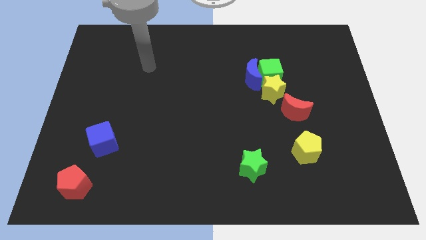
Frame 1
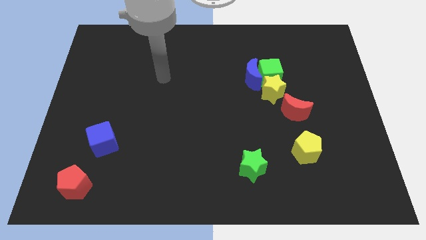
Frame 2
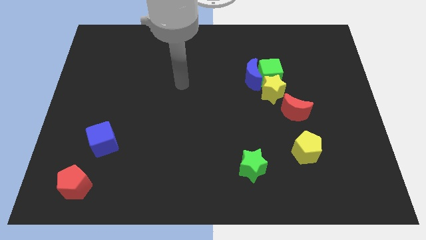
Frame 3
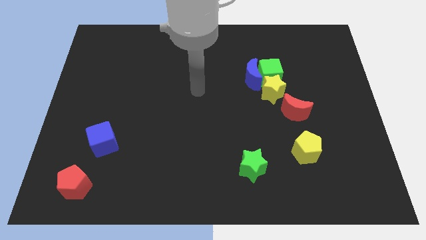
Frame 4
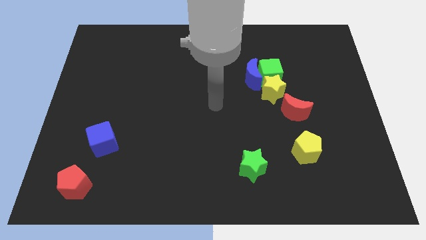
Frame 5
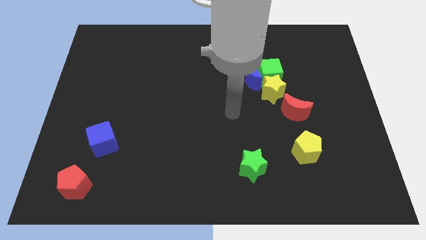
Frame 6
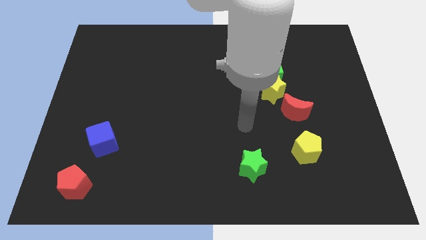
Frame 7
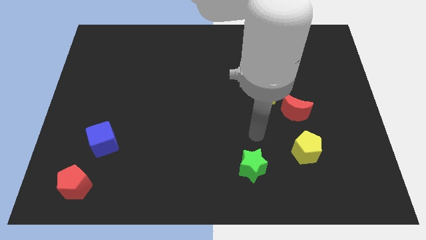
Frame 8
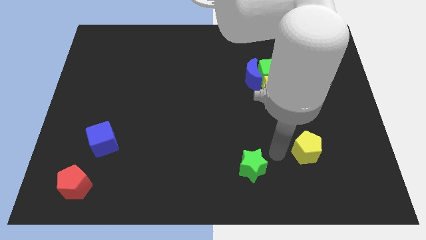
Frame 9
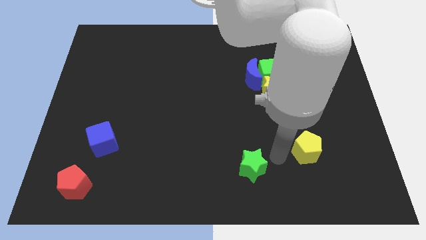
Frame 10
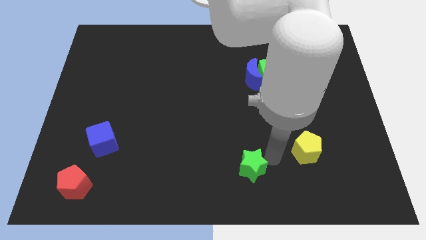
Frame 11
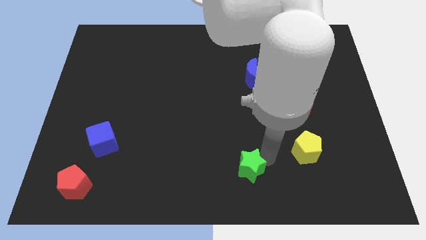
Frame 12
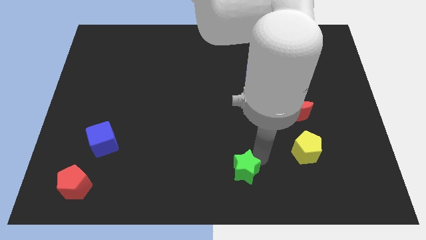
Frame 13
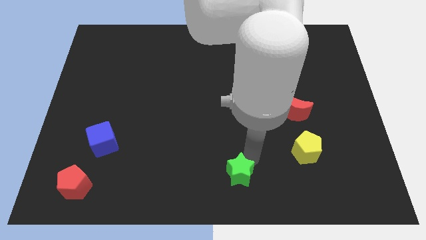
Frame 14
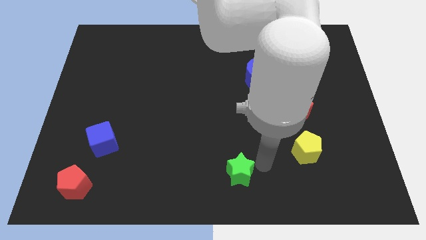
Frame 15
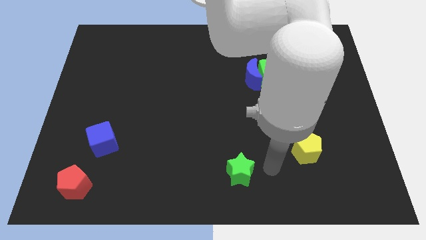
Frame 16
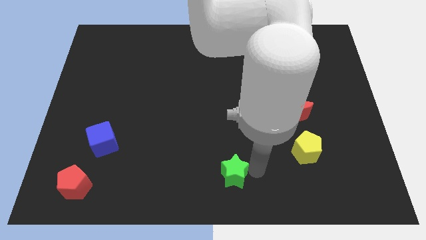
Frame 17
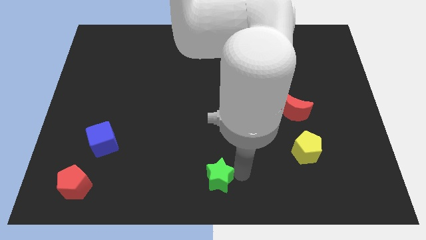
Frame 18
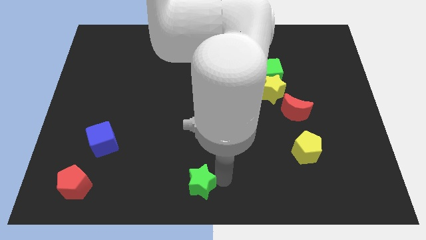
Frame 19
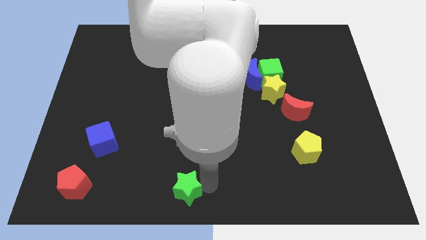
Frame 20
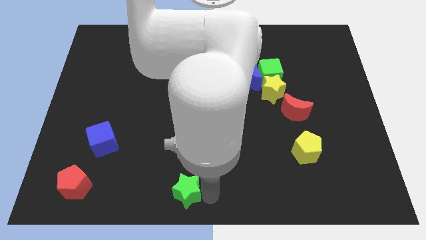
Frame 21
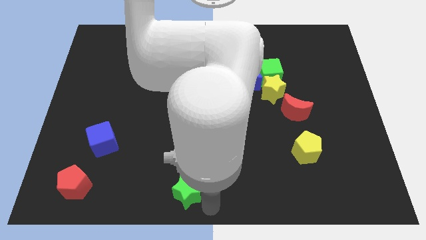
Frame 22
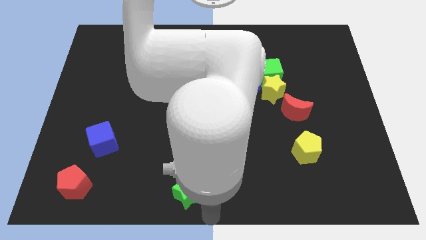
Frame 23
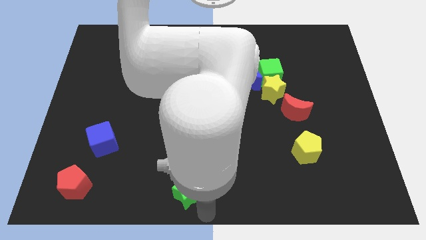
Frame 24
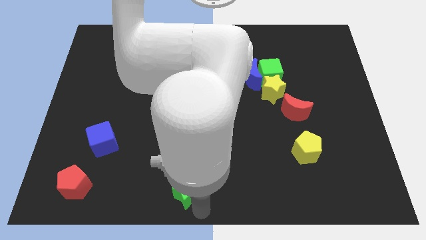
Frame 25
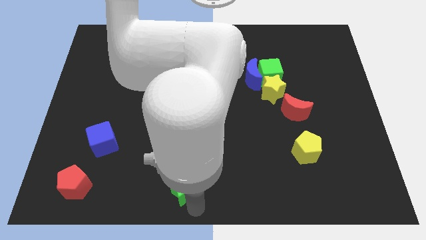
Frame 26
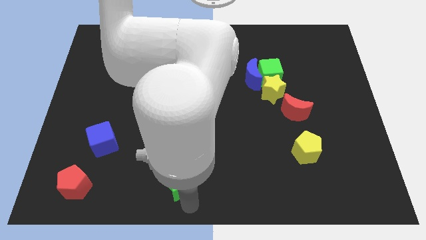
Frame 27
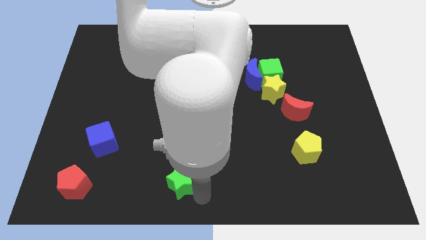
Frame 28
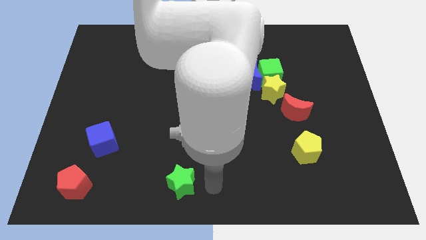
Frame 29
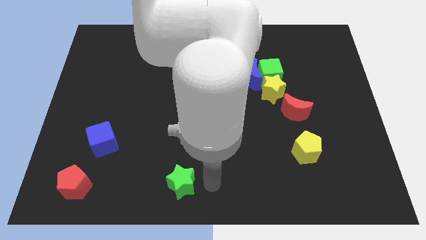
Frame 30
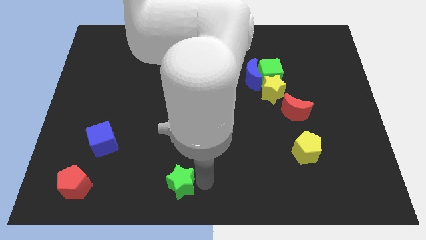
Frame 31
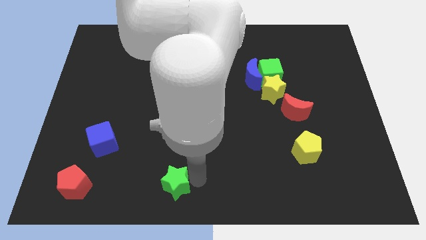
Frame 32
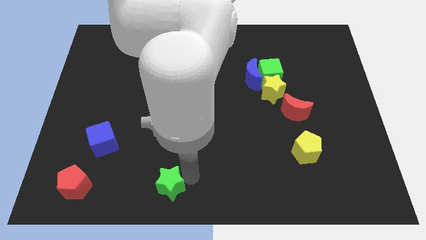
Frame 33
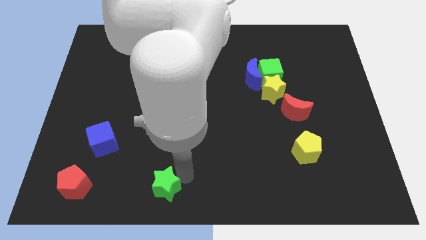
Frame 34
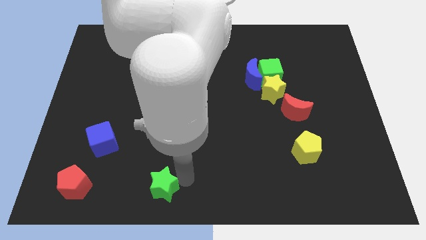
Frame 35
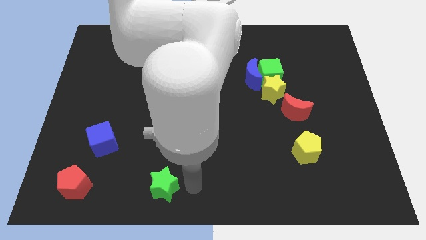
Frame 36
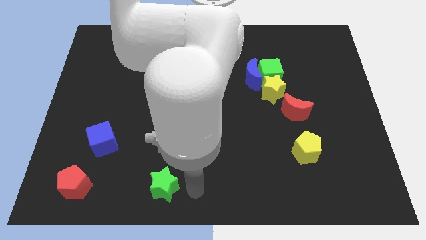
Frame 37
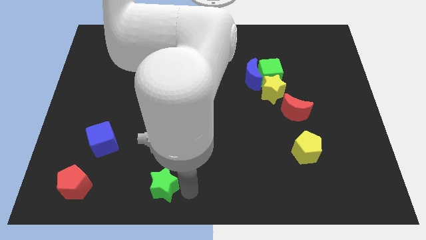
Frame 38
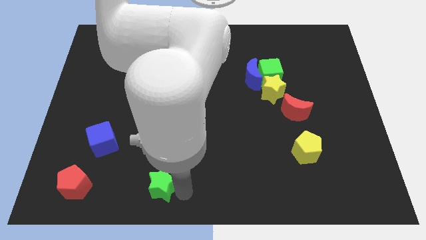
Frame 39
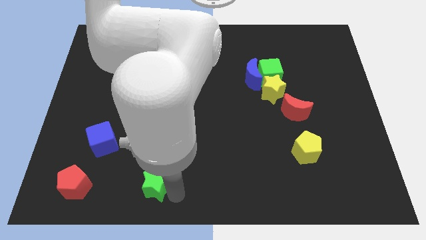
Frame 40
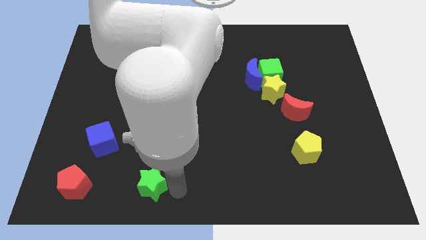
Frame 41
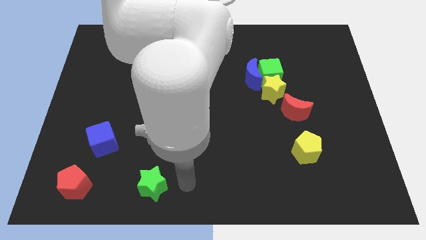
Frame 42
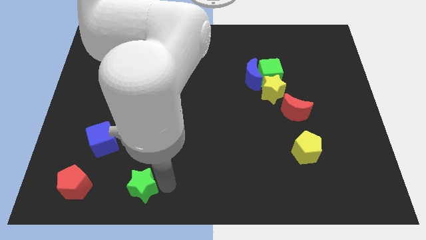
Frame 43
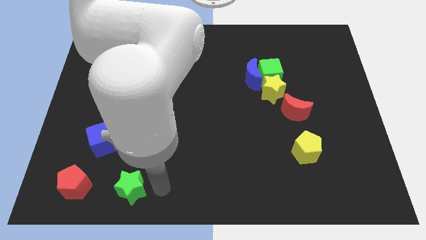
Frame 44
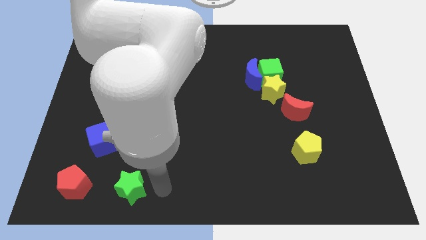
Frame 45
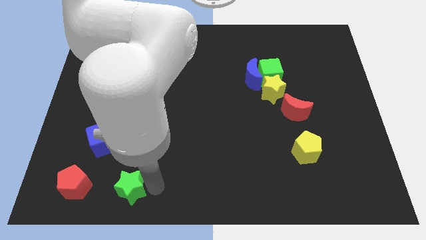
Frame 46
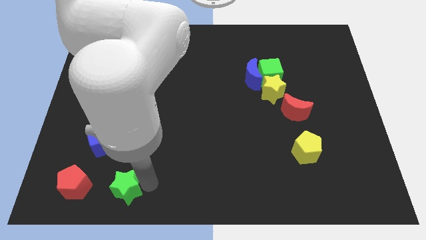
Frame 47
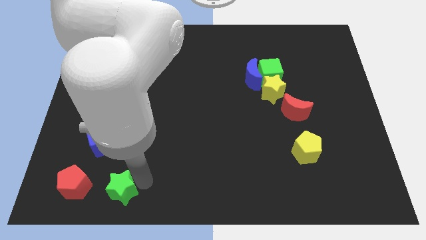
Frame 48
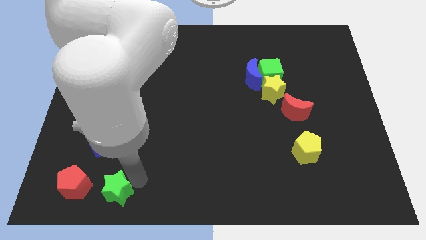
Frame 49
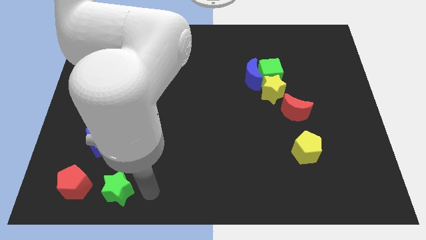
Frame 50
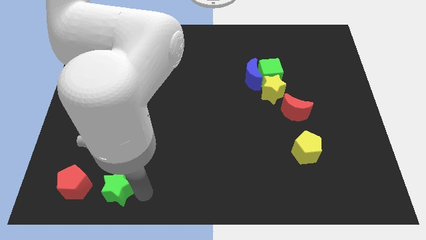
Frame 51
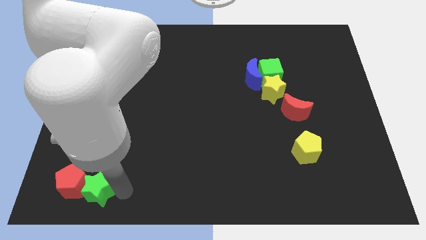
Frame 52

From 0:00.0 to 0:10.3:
put the green star close to the red pentagon

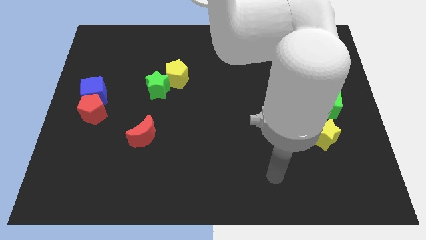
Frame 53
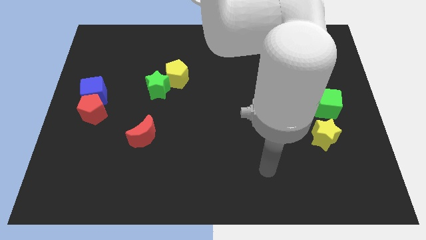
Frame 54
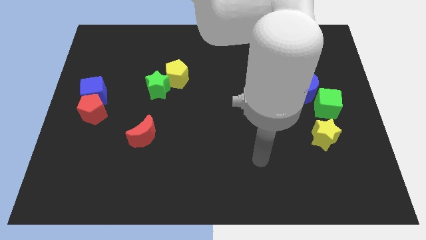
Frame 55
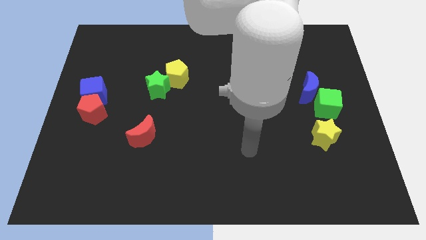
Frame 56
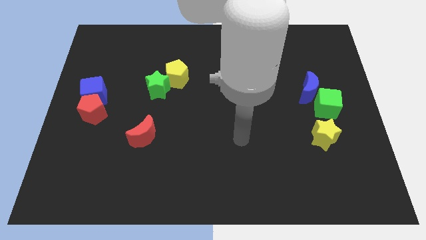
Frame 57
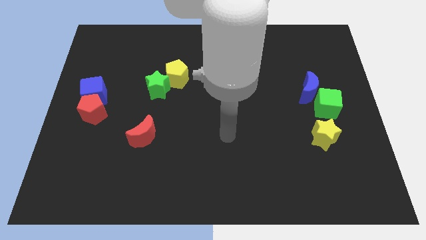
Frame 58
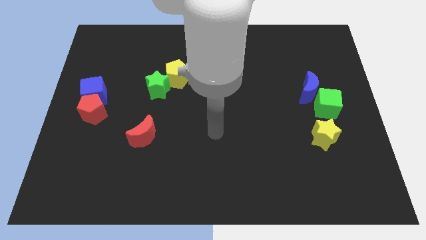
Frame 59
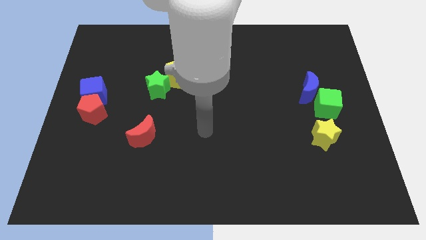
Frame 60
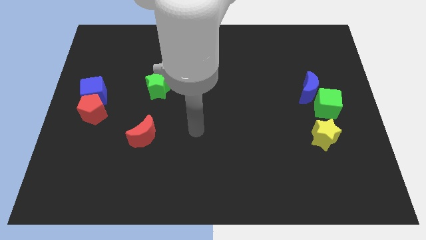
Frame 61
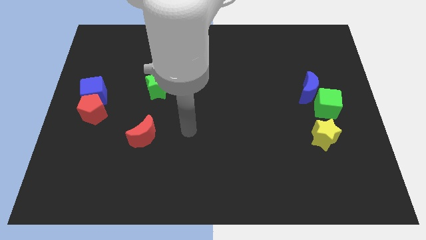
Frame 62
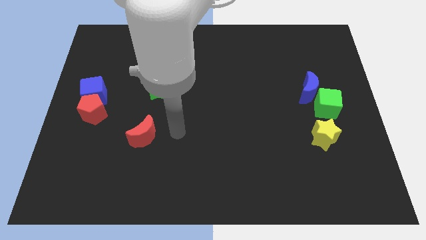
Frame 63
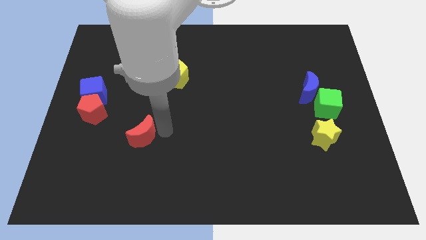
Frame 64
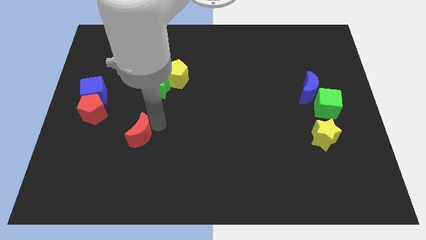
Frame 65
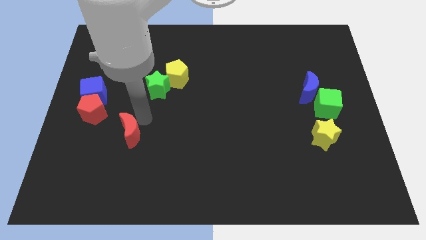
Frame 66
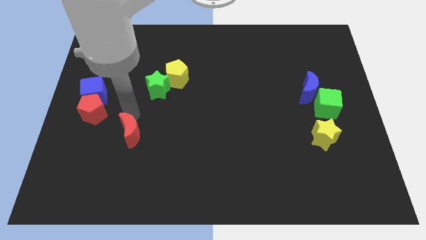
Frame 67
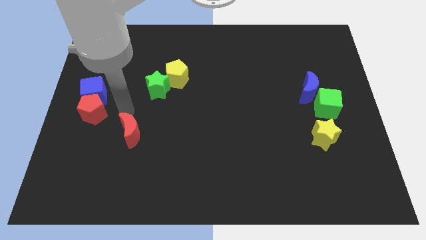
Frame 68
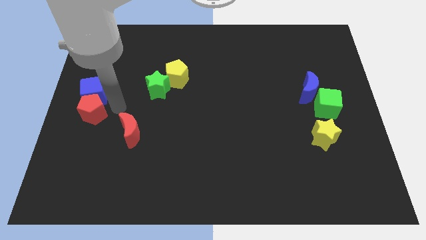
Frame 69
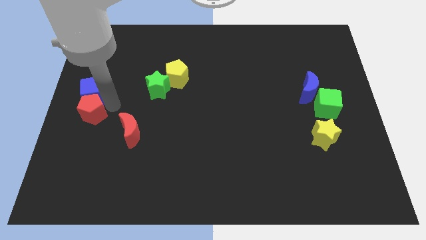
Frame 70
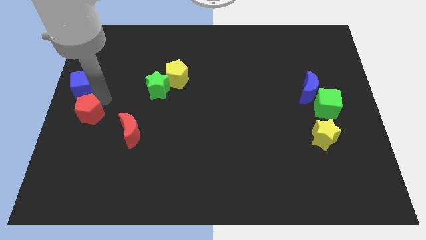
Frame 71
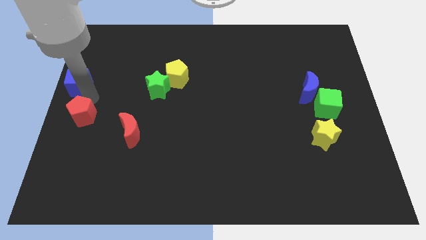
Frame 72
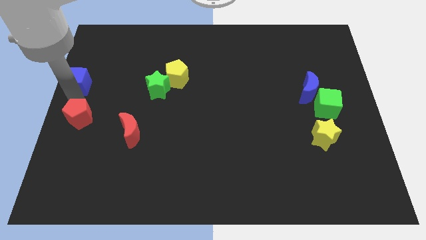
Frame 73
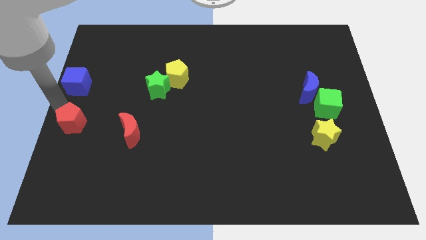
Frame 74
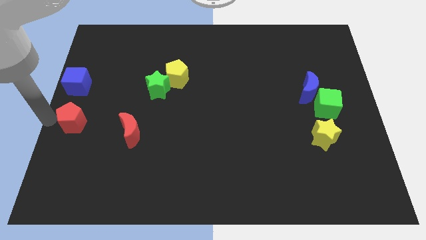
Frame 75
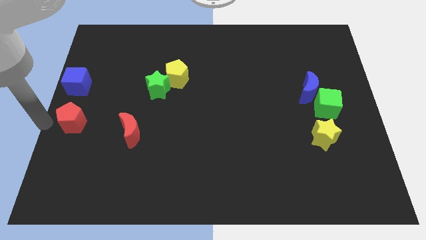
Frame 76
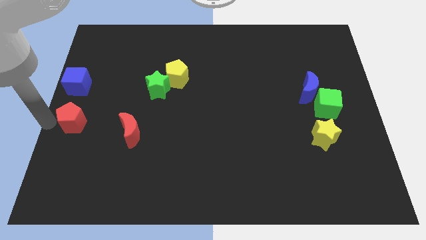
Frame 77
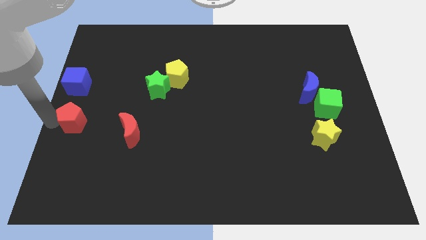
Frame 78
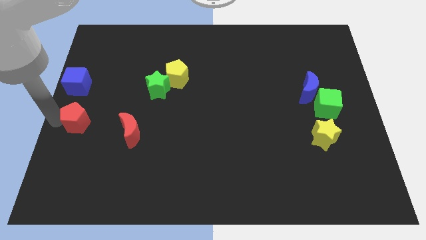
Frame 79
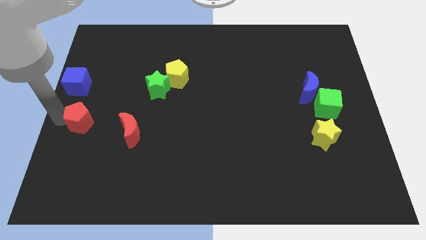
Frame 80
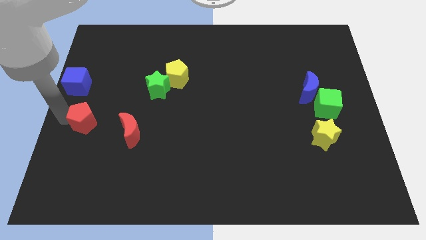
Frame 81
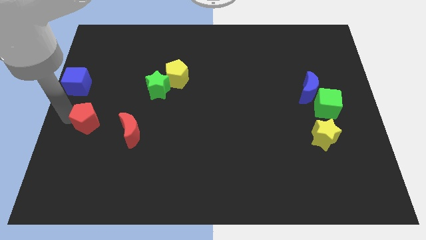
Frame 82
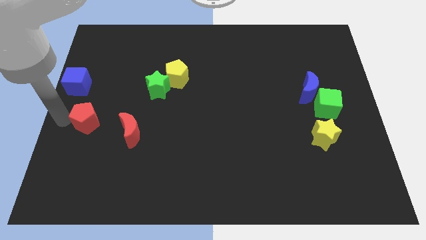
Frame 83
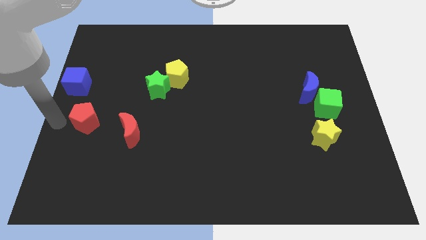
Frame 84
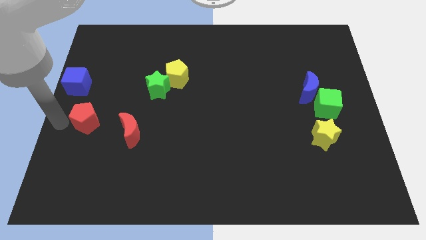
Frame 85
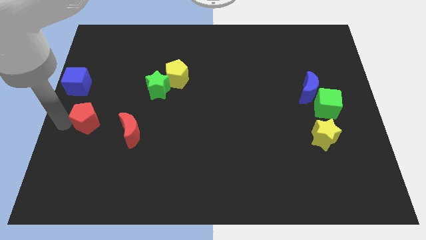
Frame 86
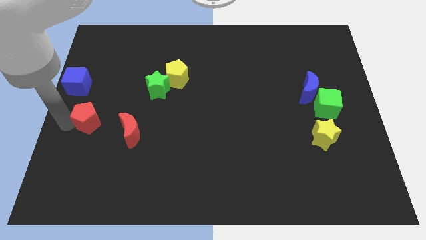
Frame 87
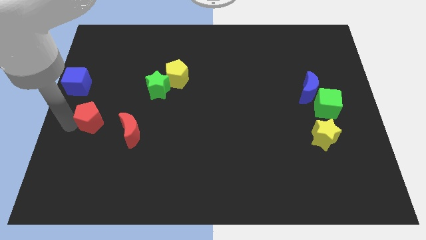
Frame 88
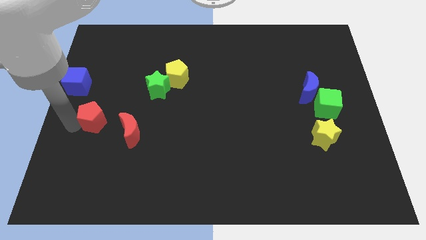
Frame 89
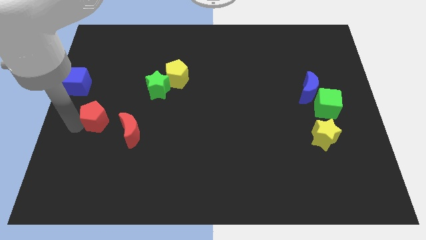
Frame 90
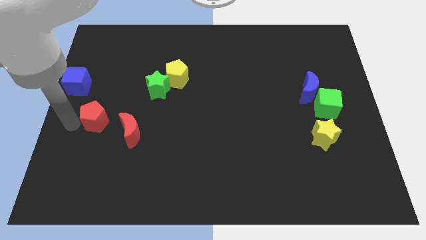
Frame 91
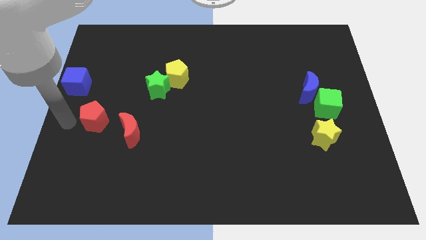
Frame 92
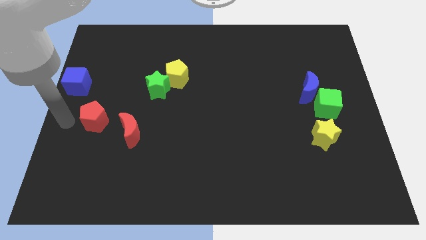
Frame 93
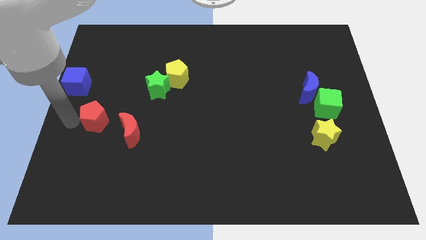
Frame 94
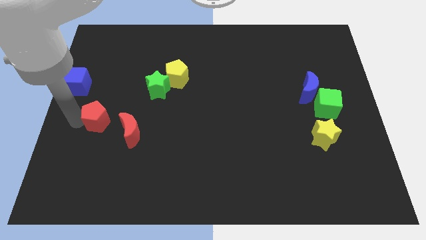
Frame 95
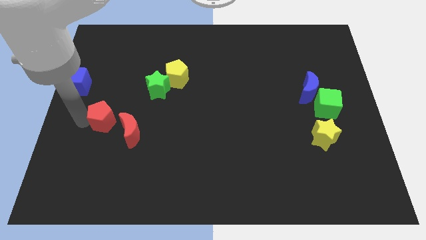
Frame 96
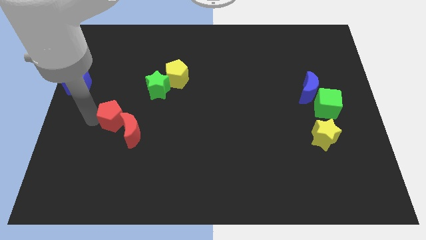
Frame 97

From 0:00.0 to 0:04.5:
move the red pentagon towards the red moon
